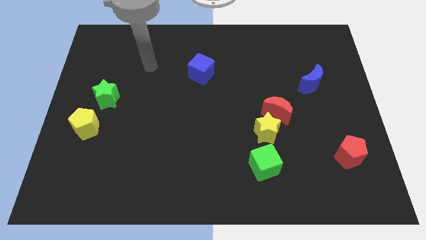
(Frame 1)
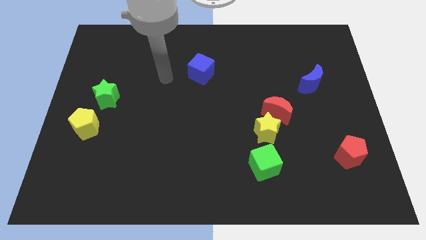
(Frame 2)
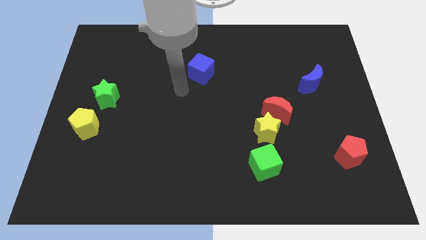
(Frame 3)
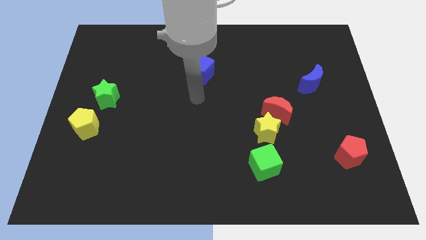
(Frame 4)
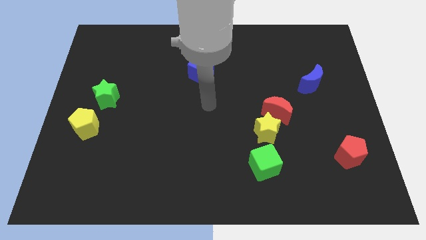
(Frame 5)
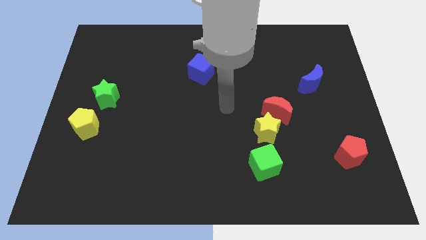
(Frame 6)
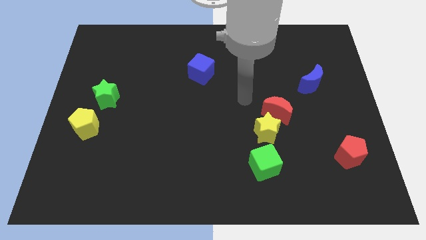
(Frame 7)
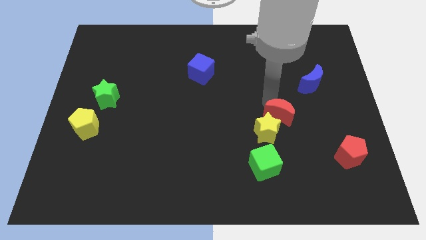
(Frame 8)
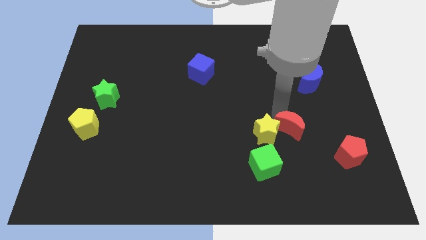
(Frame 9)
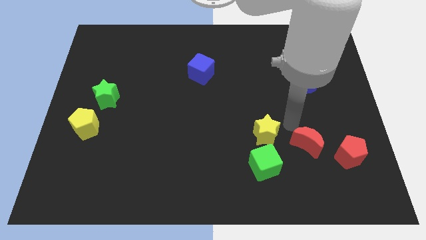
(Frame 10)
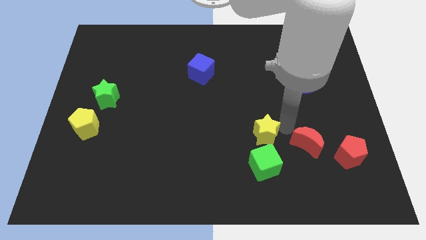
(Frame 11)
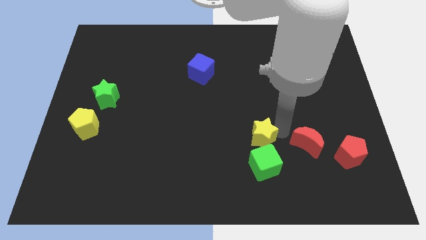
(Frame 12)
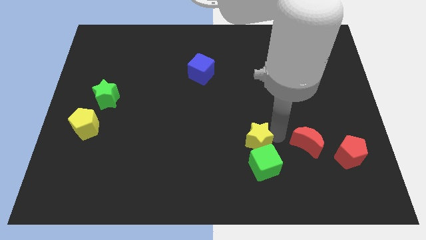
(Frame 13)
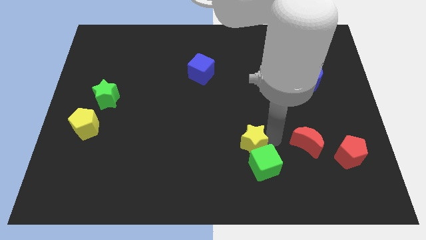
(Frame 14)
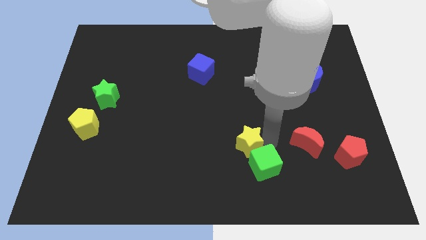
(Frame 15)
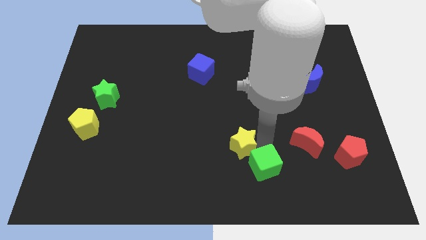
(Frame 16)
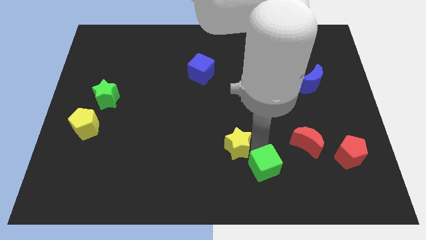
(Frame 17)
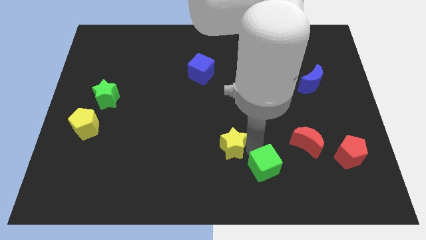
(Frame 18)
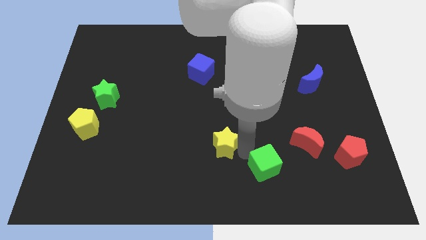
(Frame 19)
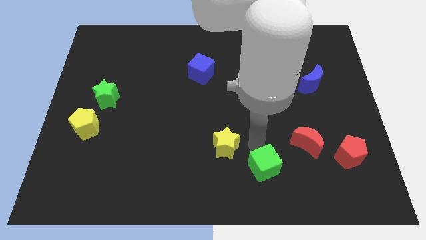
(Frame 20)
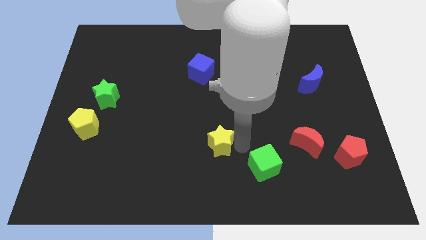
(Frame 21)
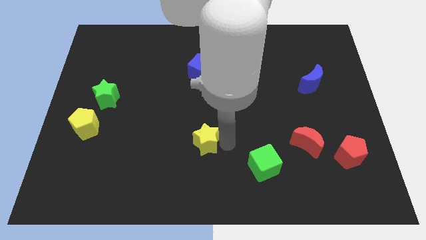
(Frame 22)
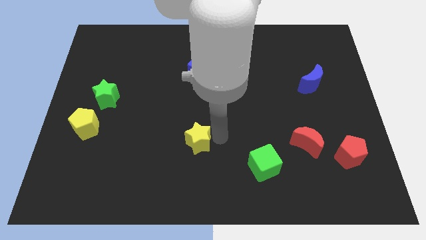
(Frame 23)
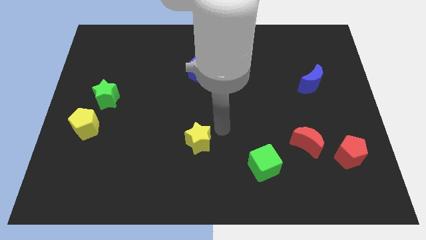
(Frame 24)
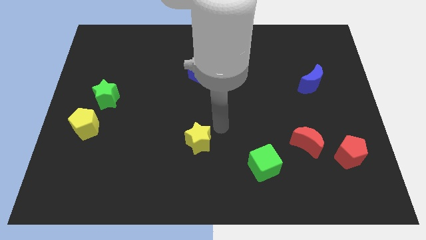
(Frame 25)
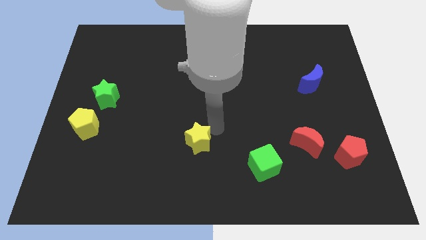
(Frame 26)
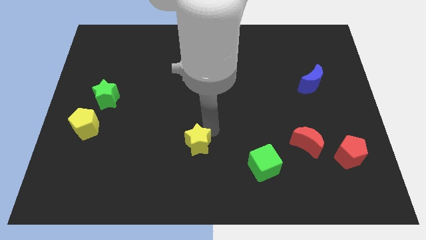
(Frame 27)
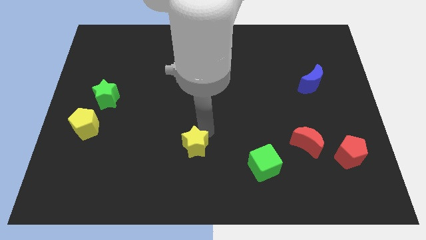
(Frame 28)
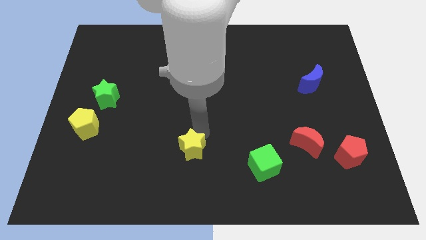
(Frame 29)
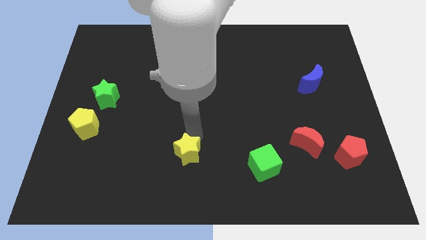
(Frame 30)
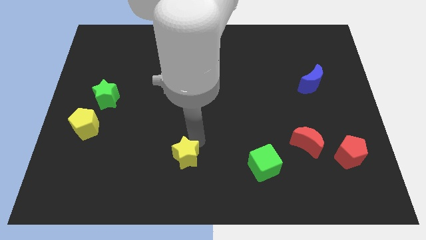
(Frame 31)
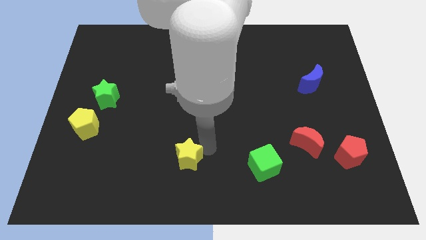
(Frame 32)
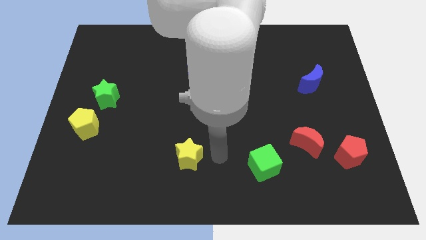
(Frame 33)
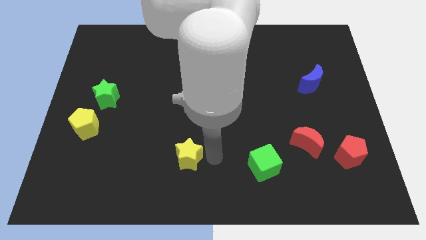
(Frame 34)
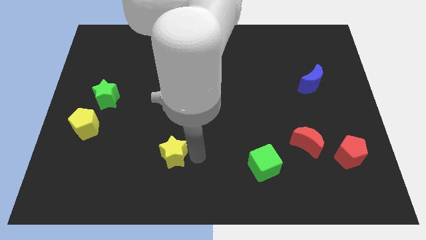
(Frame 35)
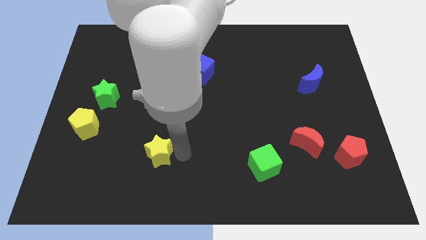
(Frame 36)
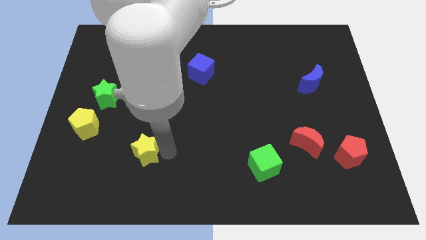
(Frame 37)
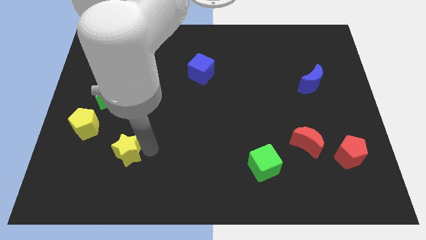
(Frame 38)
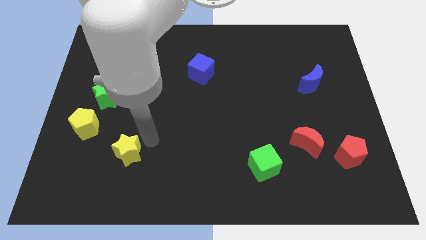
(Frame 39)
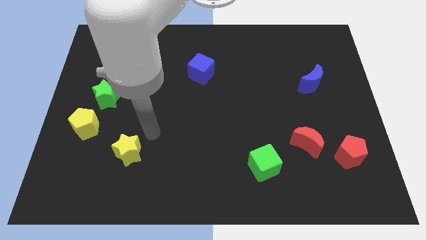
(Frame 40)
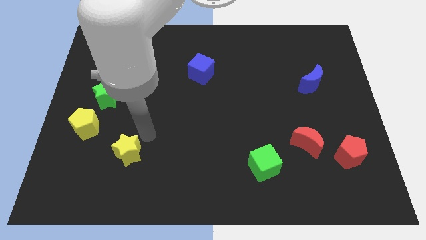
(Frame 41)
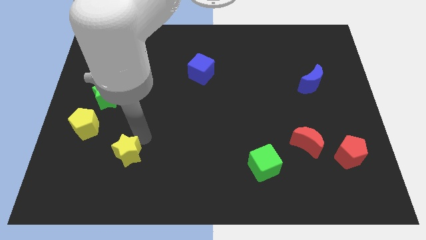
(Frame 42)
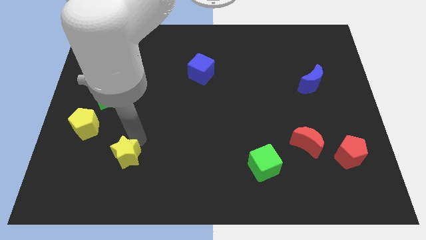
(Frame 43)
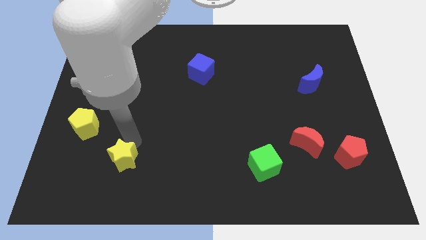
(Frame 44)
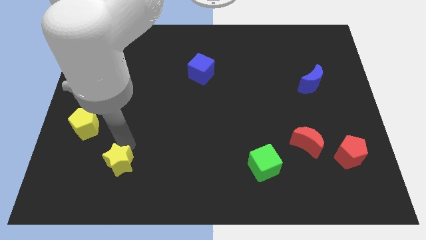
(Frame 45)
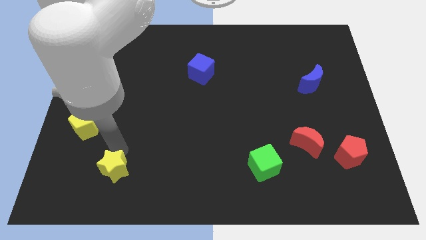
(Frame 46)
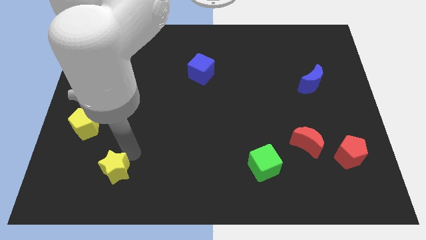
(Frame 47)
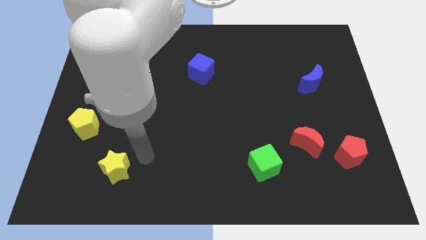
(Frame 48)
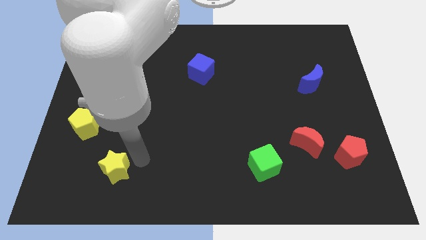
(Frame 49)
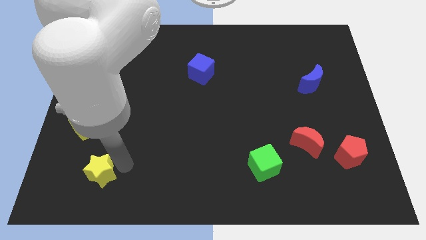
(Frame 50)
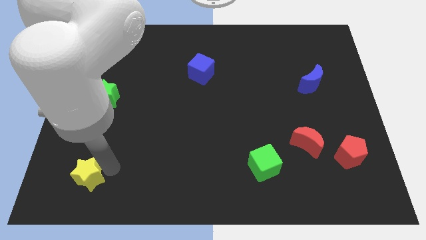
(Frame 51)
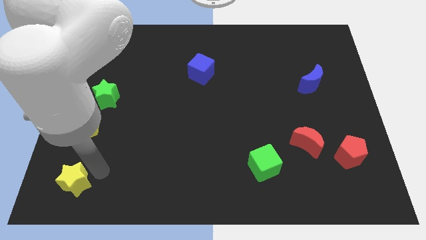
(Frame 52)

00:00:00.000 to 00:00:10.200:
slide the yellow star to the bottom left

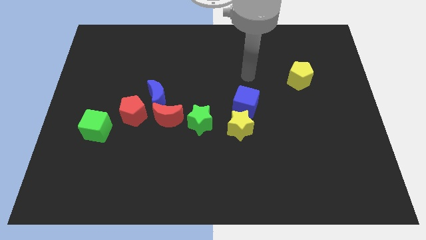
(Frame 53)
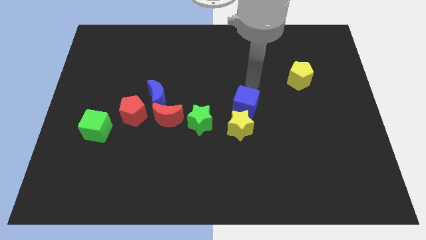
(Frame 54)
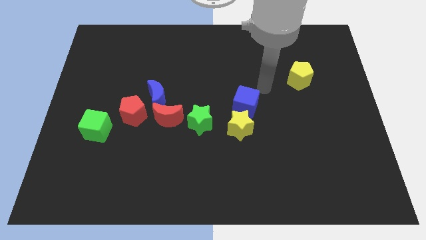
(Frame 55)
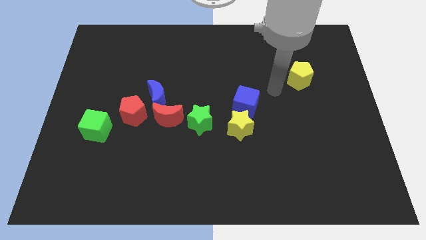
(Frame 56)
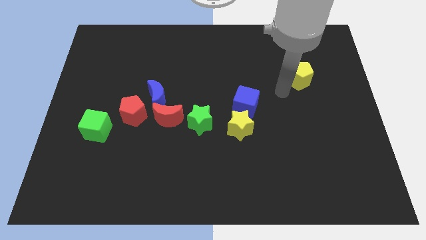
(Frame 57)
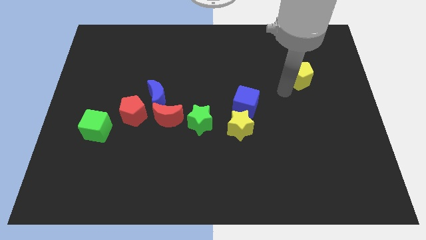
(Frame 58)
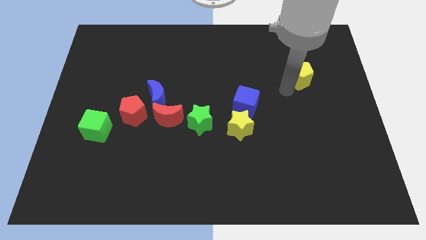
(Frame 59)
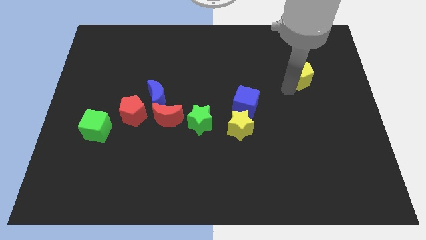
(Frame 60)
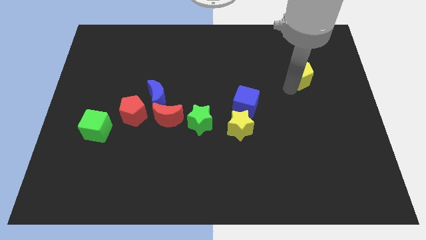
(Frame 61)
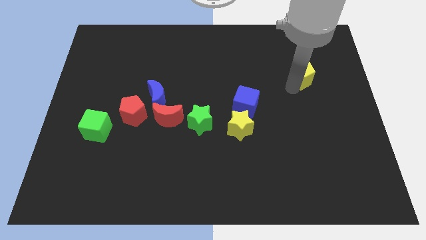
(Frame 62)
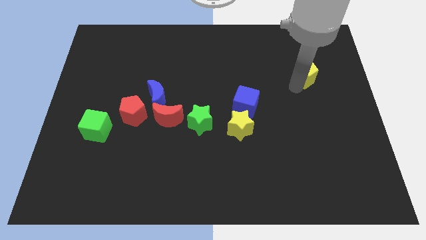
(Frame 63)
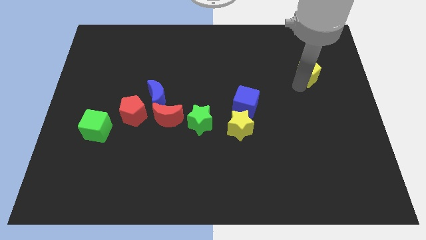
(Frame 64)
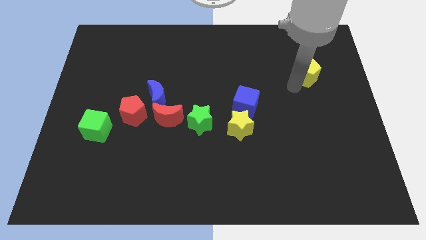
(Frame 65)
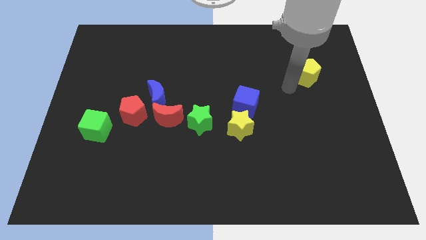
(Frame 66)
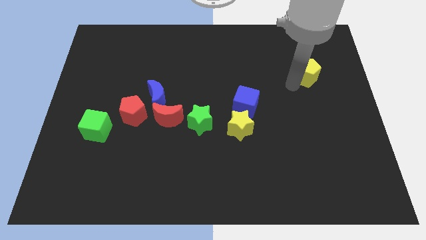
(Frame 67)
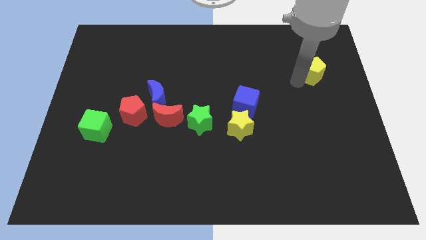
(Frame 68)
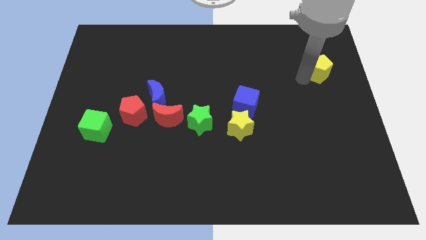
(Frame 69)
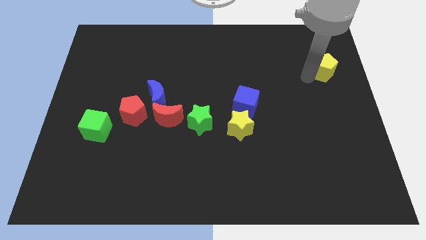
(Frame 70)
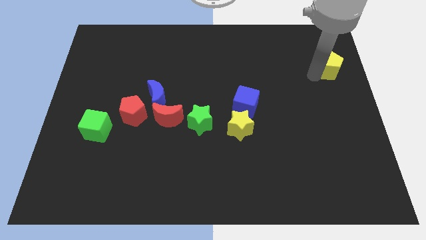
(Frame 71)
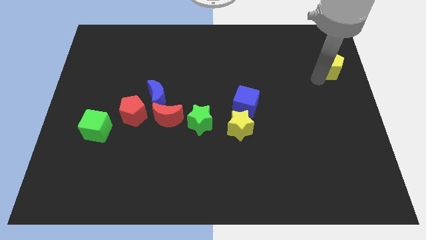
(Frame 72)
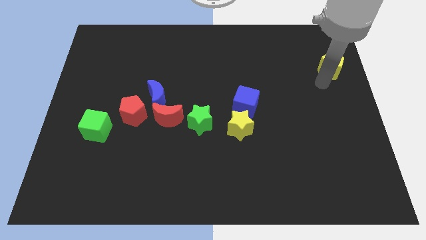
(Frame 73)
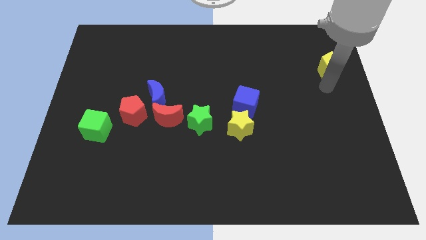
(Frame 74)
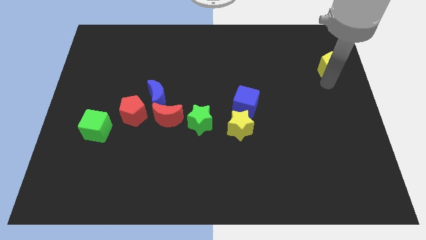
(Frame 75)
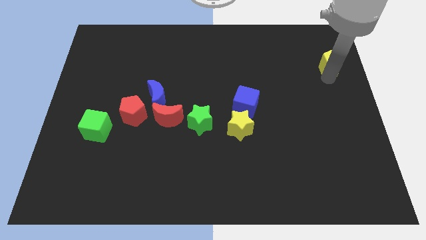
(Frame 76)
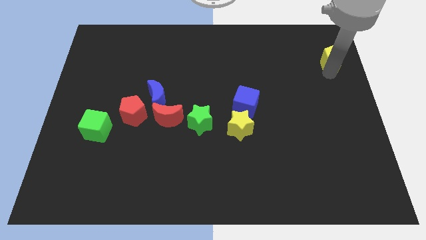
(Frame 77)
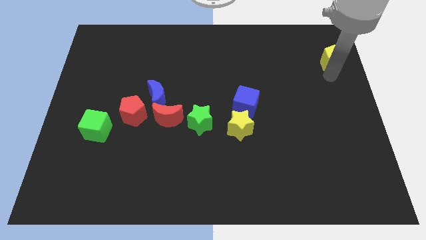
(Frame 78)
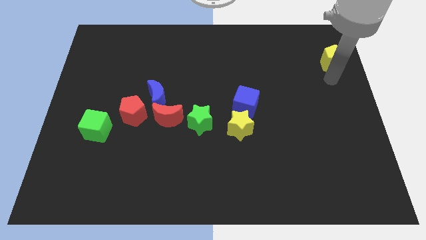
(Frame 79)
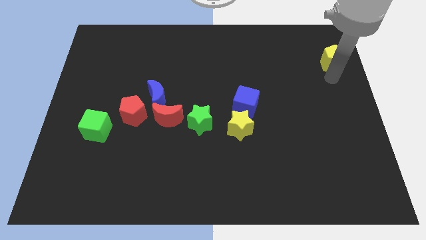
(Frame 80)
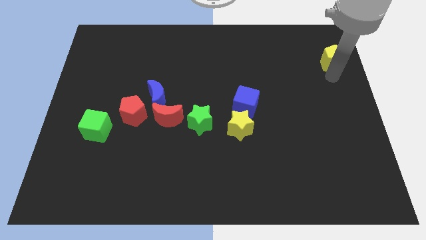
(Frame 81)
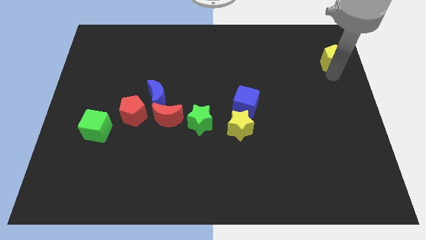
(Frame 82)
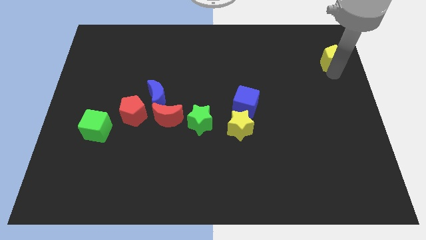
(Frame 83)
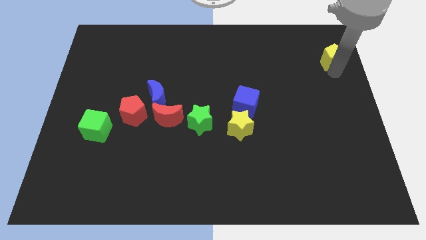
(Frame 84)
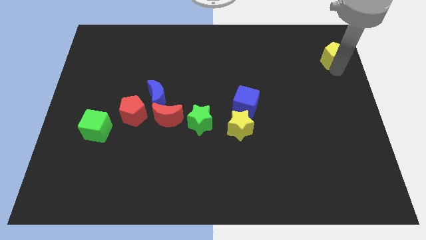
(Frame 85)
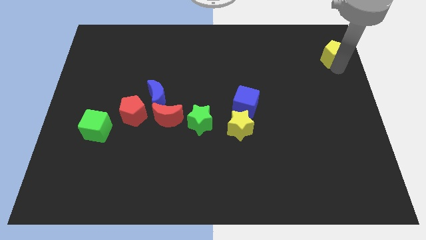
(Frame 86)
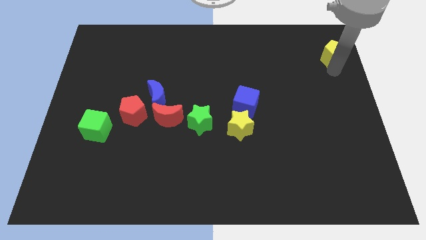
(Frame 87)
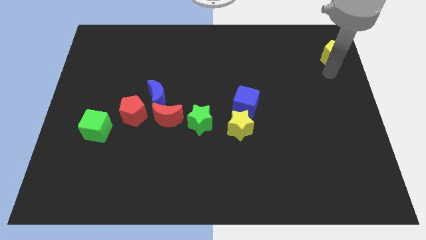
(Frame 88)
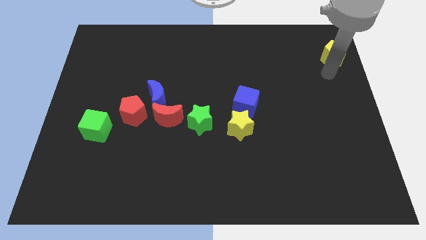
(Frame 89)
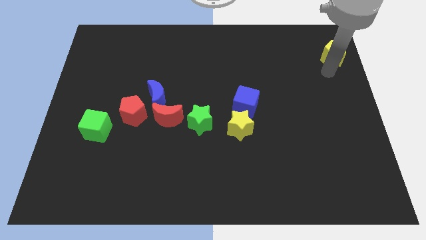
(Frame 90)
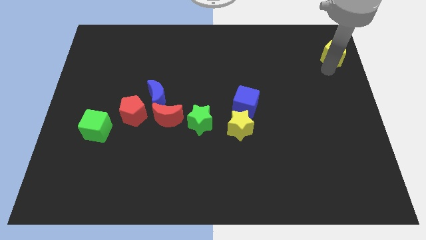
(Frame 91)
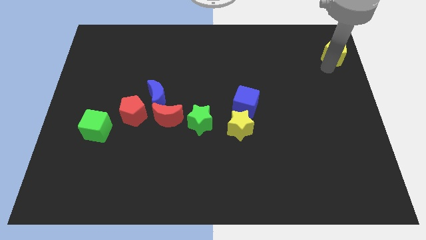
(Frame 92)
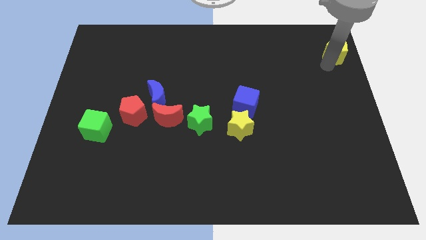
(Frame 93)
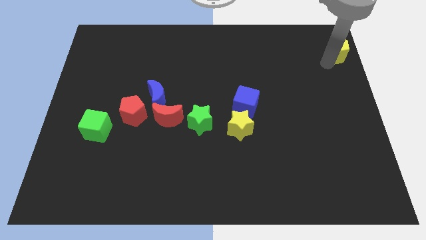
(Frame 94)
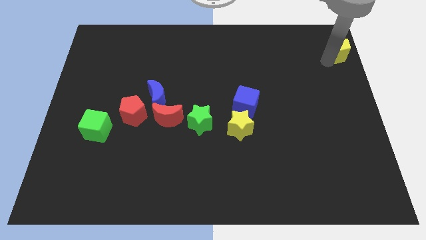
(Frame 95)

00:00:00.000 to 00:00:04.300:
put the yellow pentagon to the top right corner
